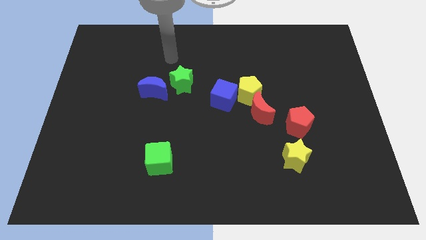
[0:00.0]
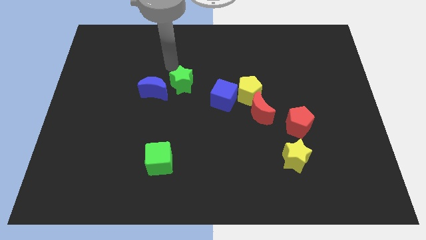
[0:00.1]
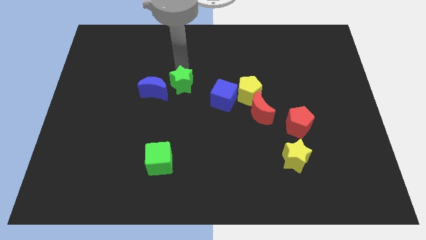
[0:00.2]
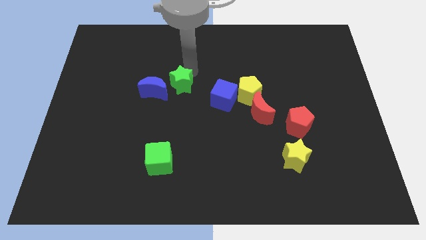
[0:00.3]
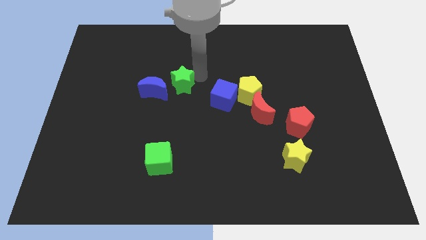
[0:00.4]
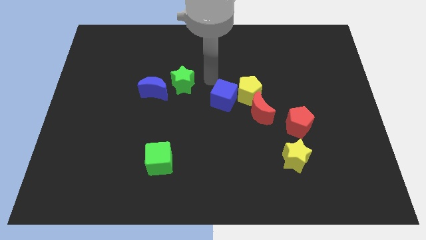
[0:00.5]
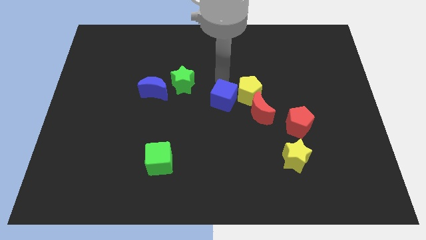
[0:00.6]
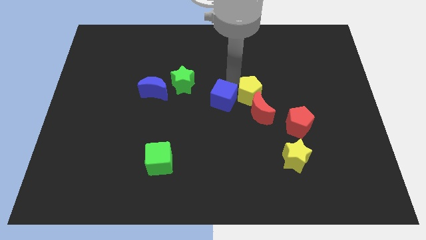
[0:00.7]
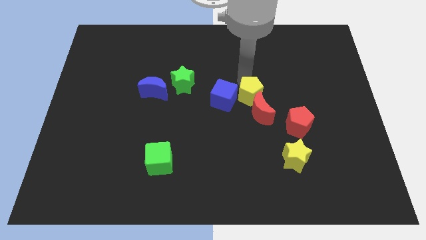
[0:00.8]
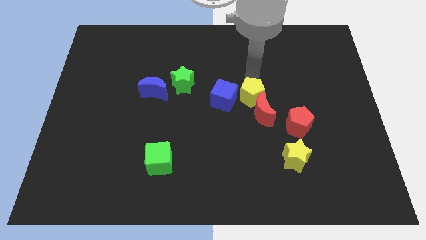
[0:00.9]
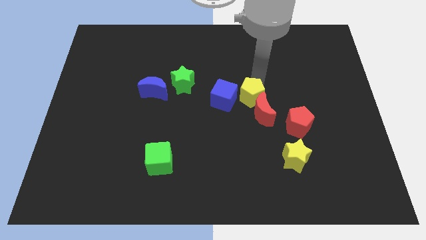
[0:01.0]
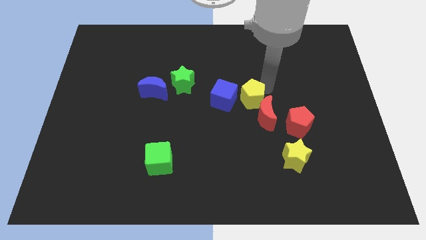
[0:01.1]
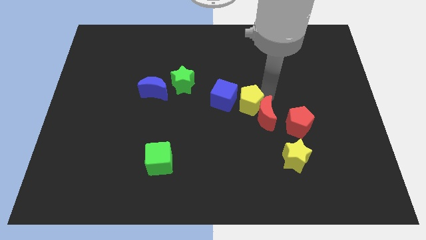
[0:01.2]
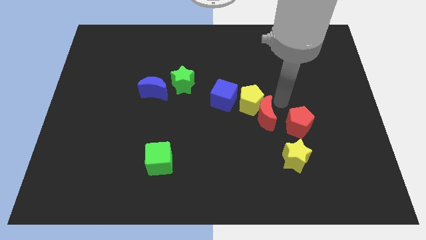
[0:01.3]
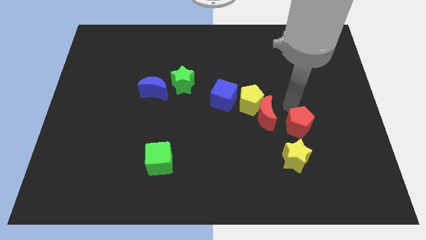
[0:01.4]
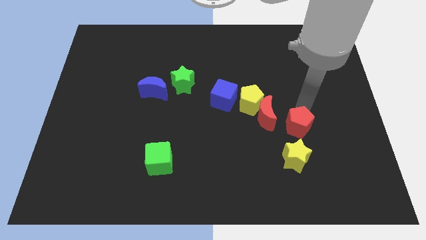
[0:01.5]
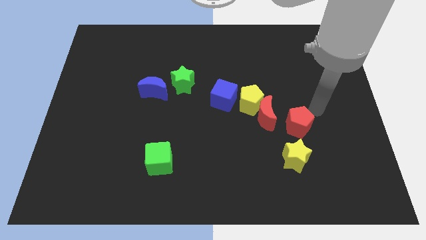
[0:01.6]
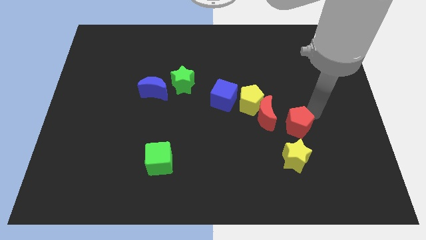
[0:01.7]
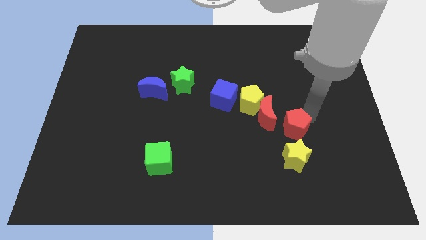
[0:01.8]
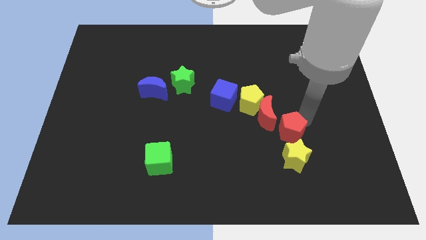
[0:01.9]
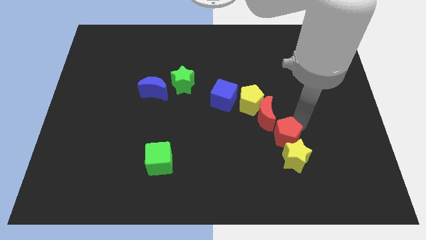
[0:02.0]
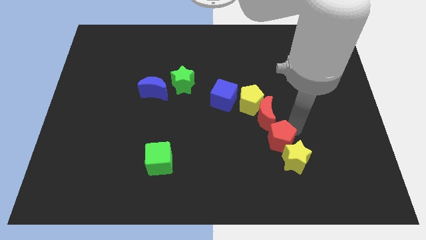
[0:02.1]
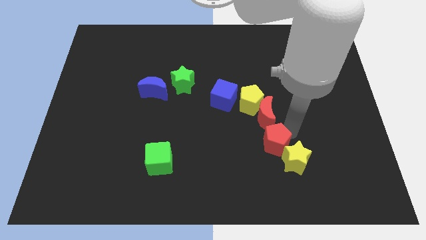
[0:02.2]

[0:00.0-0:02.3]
push the red pentagon a little down and to the left

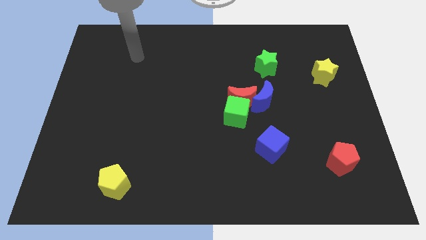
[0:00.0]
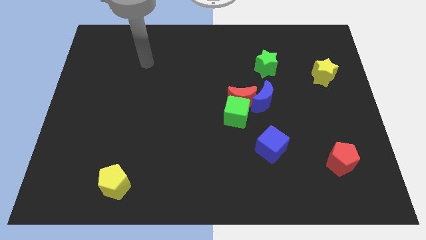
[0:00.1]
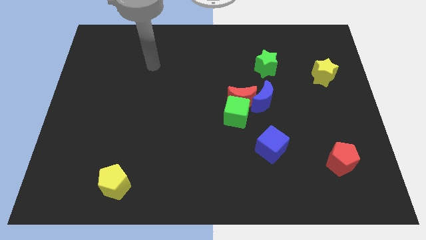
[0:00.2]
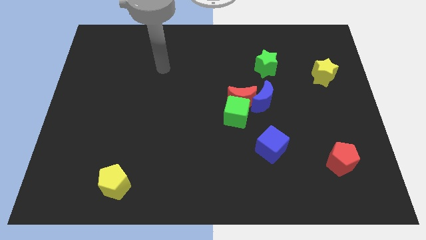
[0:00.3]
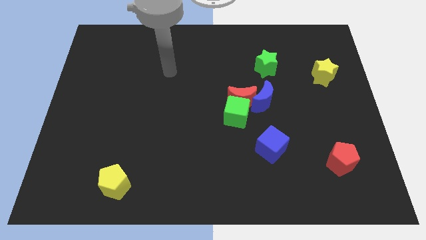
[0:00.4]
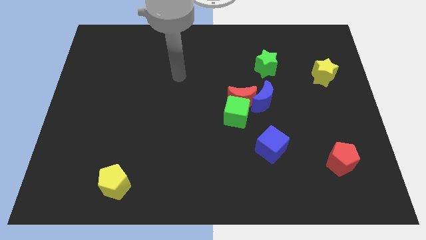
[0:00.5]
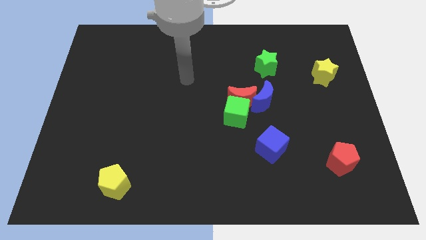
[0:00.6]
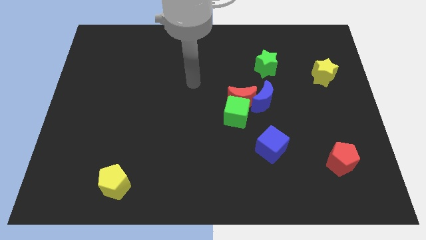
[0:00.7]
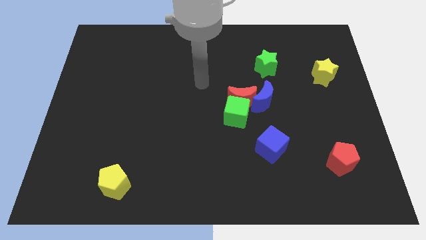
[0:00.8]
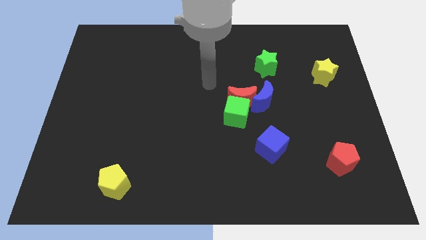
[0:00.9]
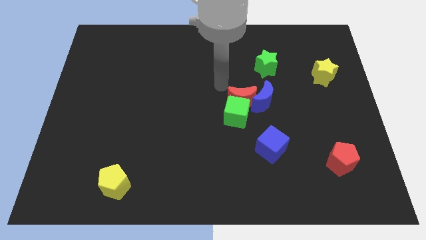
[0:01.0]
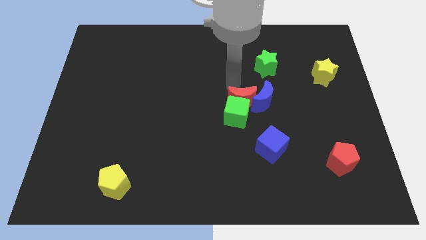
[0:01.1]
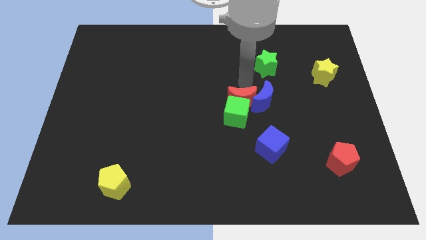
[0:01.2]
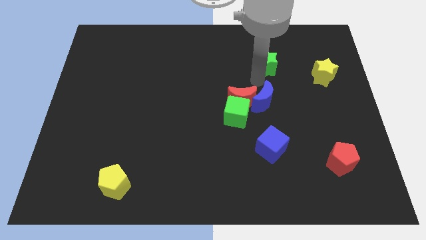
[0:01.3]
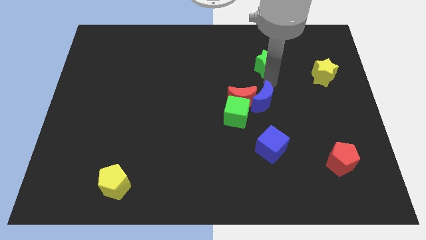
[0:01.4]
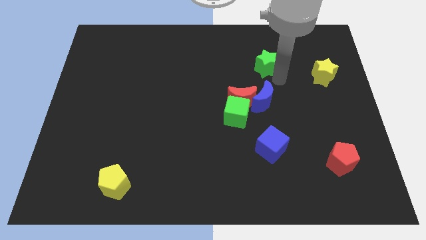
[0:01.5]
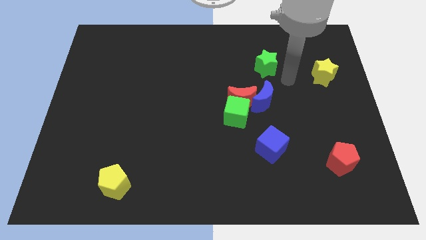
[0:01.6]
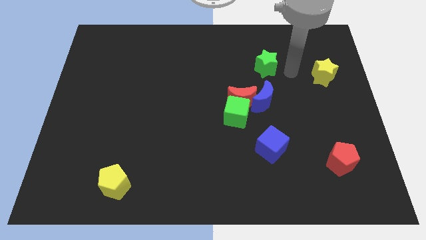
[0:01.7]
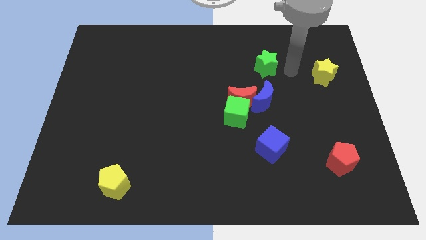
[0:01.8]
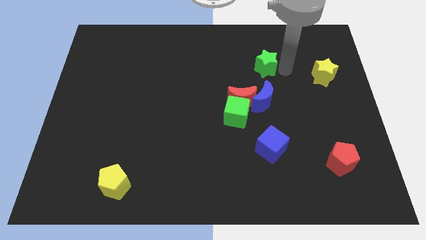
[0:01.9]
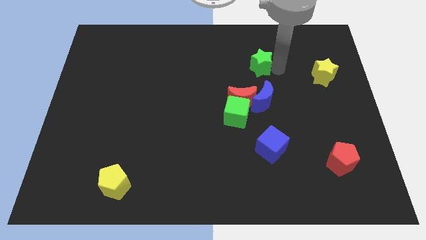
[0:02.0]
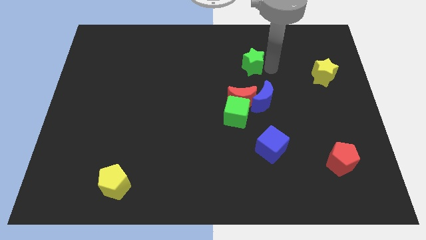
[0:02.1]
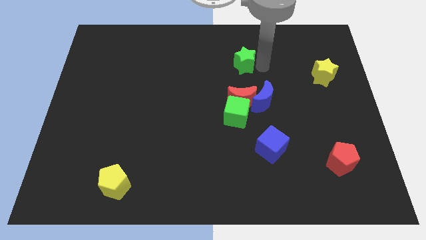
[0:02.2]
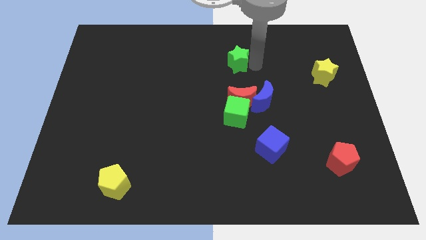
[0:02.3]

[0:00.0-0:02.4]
slide the green star to the left a little bit

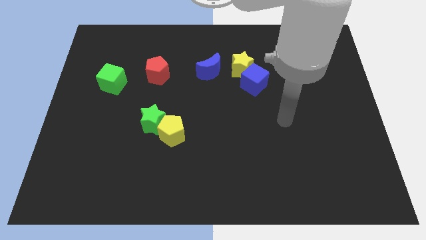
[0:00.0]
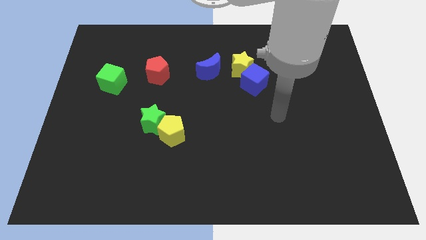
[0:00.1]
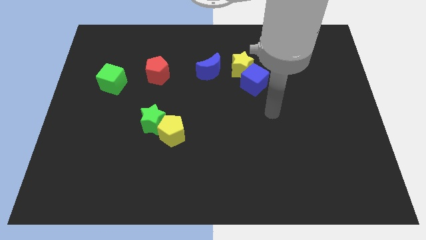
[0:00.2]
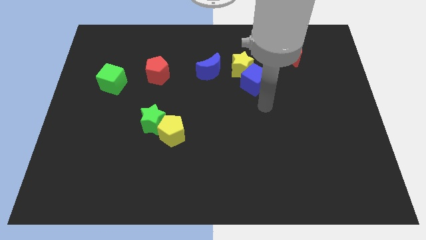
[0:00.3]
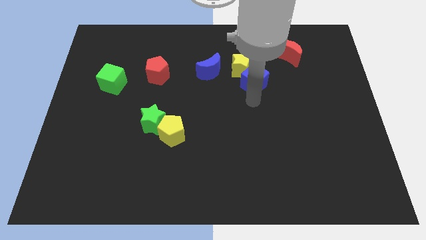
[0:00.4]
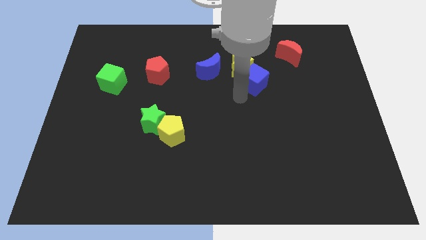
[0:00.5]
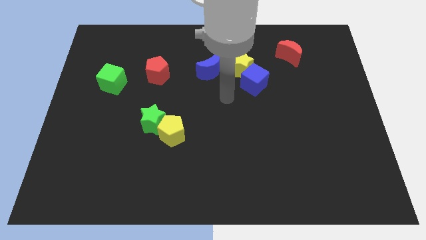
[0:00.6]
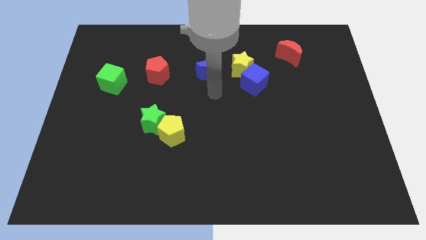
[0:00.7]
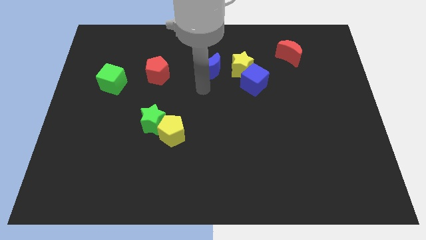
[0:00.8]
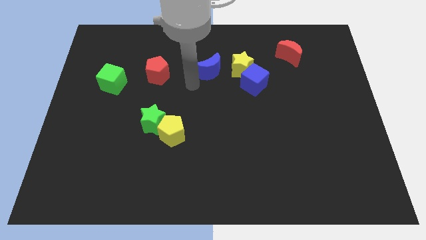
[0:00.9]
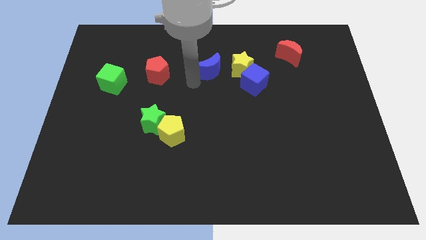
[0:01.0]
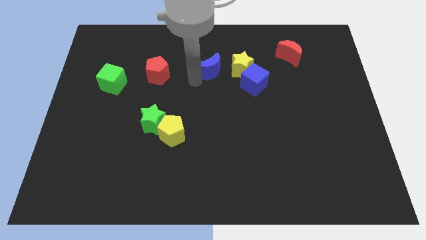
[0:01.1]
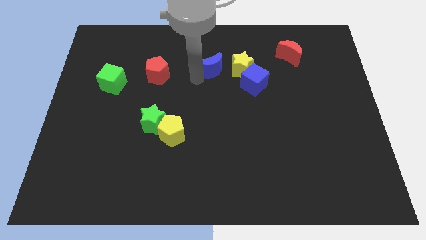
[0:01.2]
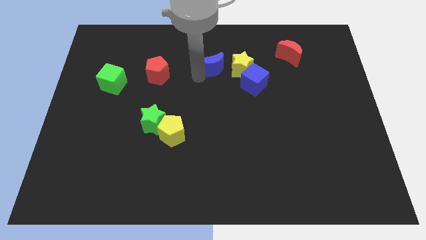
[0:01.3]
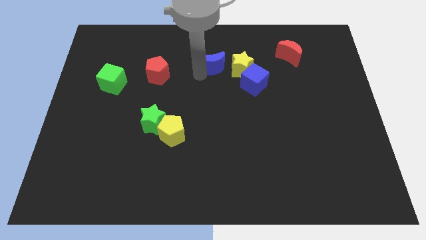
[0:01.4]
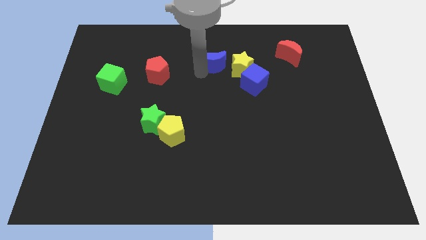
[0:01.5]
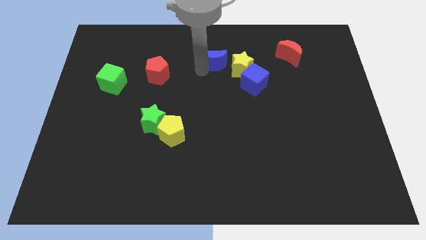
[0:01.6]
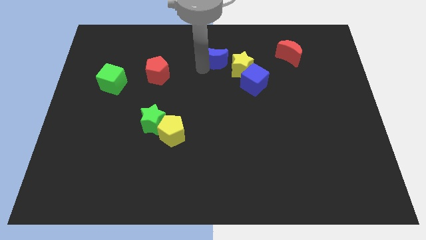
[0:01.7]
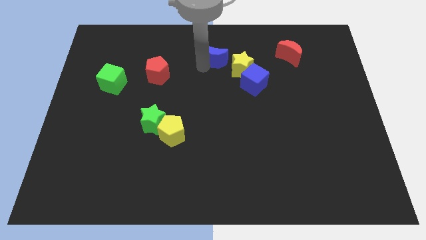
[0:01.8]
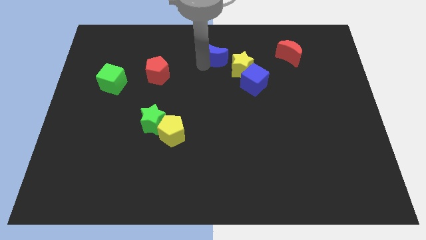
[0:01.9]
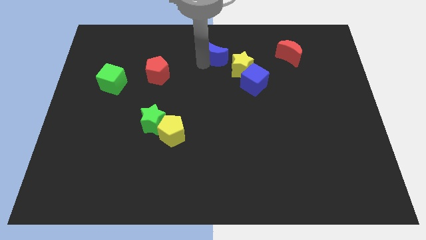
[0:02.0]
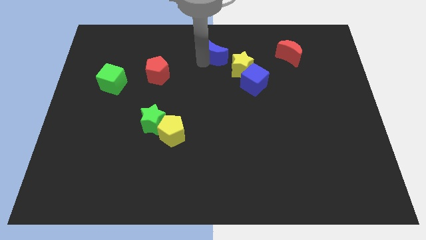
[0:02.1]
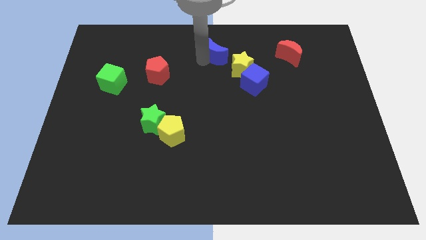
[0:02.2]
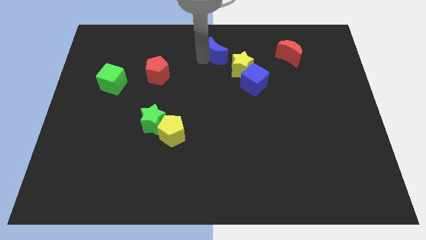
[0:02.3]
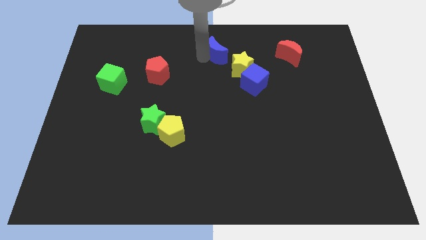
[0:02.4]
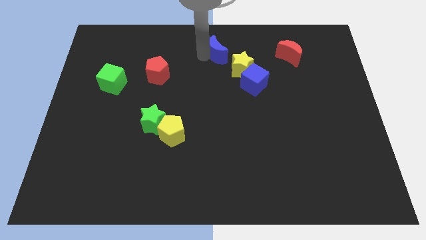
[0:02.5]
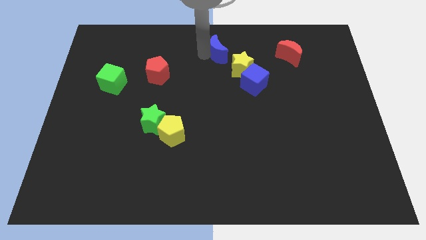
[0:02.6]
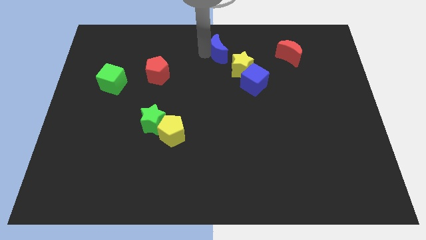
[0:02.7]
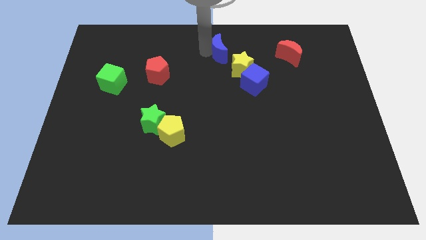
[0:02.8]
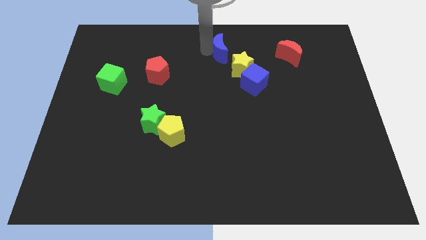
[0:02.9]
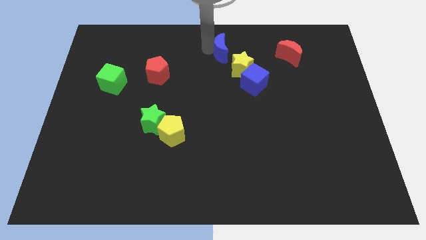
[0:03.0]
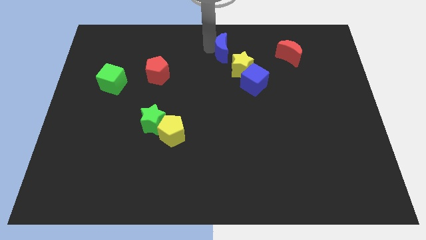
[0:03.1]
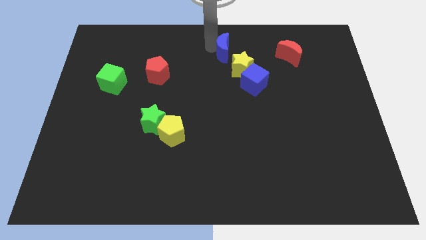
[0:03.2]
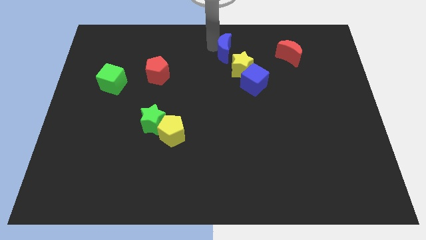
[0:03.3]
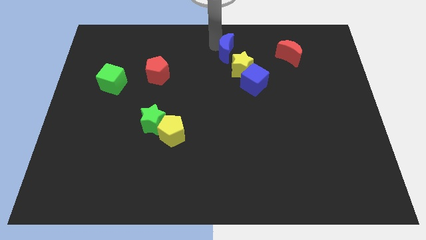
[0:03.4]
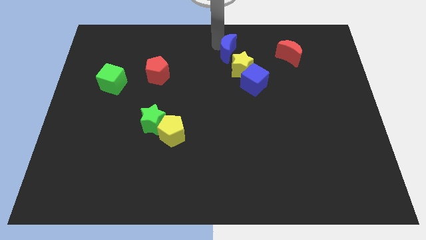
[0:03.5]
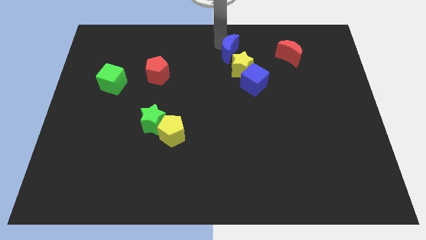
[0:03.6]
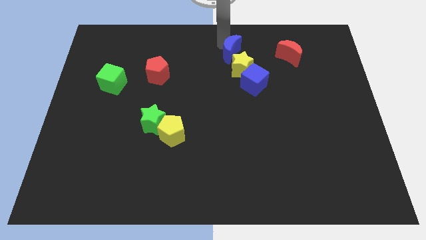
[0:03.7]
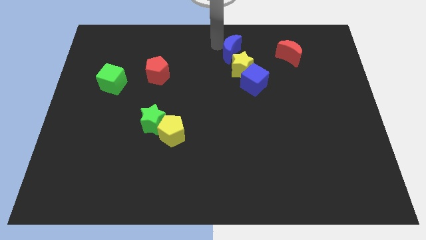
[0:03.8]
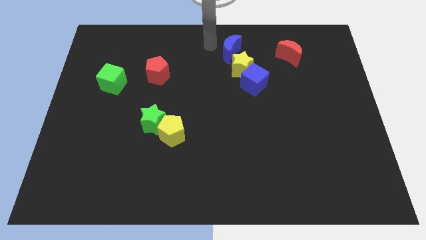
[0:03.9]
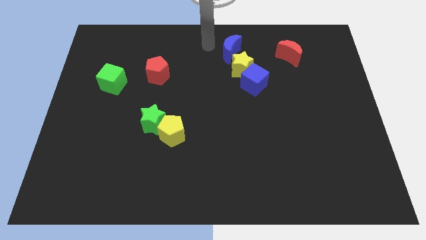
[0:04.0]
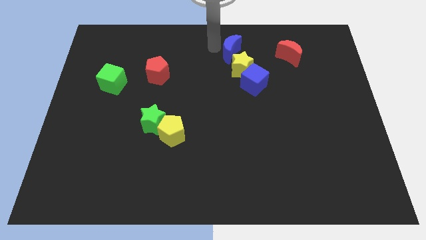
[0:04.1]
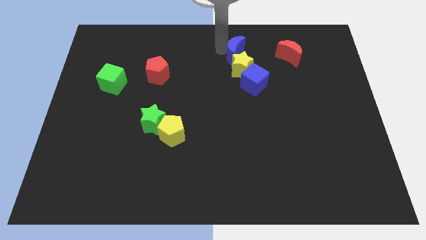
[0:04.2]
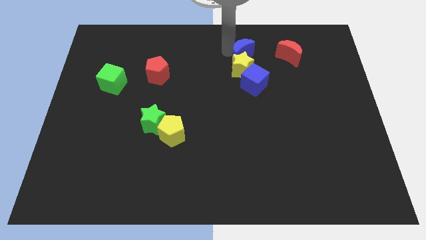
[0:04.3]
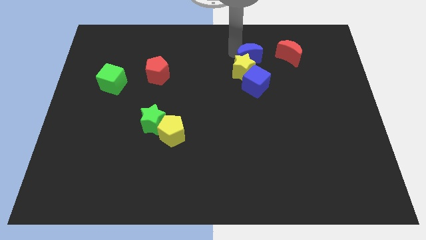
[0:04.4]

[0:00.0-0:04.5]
push the blue moon a little to the right
